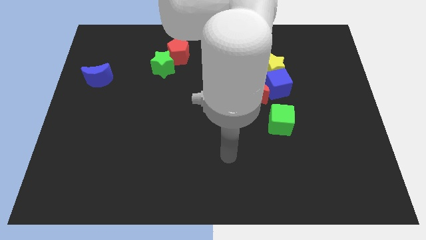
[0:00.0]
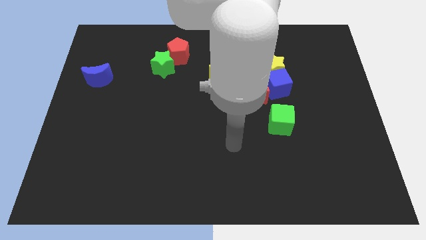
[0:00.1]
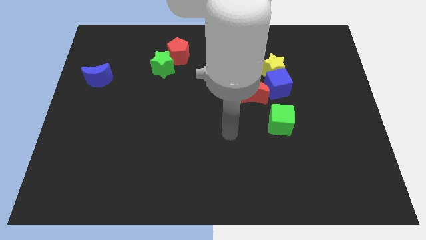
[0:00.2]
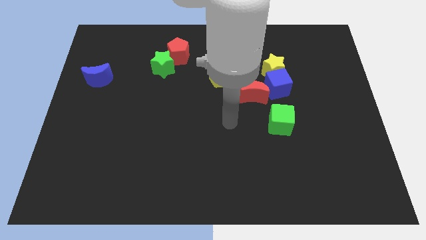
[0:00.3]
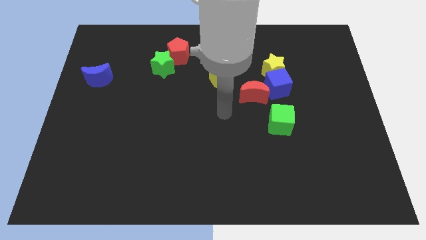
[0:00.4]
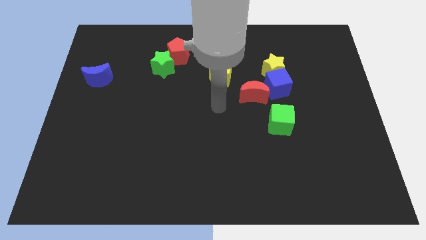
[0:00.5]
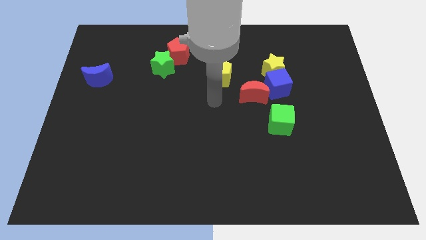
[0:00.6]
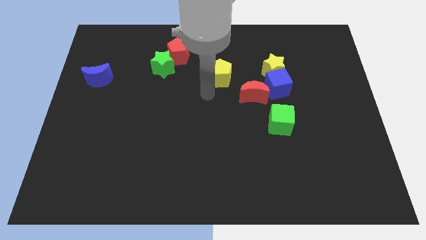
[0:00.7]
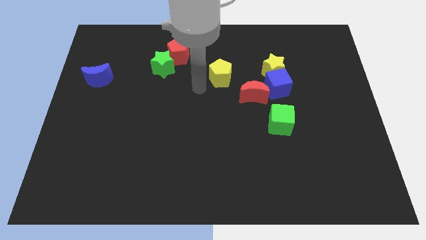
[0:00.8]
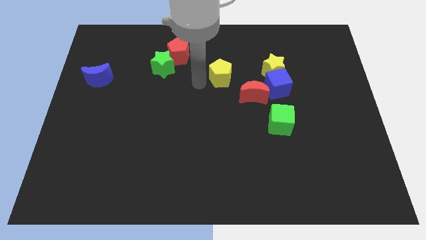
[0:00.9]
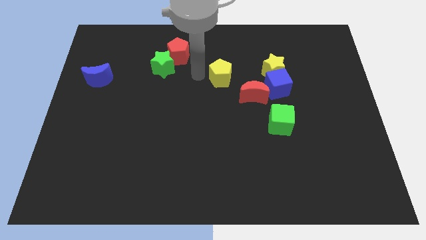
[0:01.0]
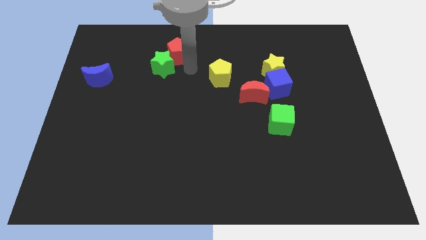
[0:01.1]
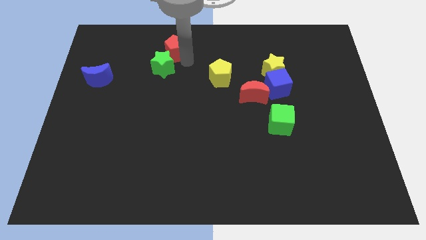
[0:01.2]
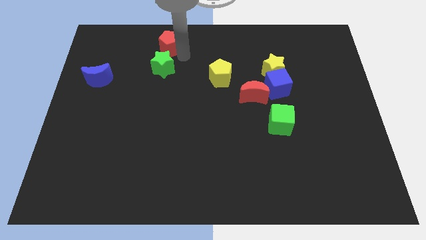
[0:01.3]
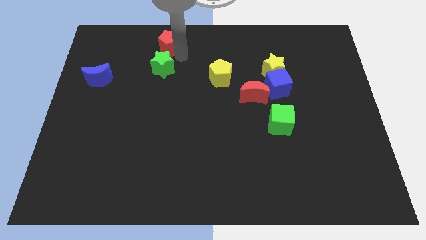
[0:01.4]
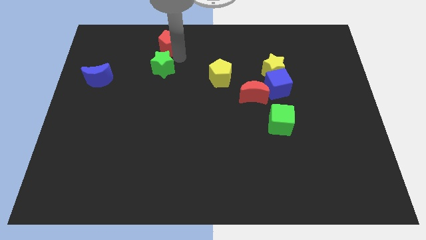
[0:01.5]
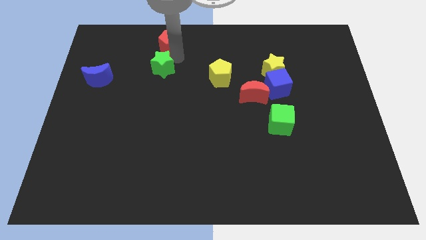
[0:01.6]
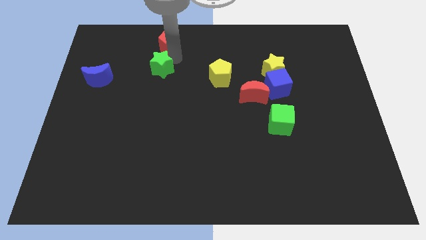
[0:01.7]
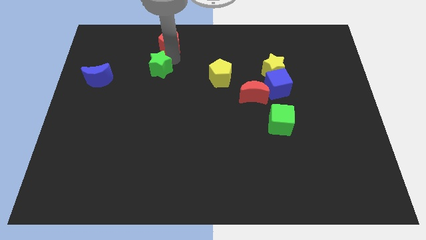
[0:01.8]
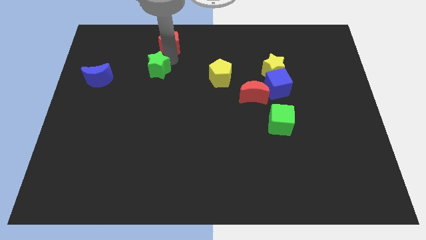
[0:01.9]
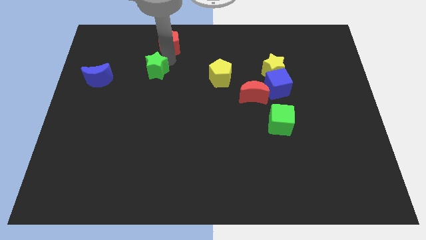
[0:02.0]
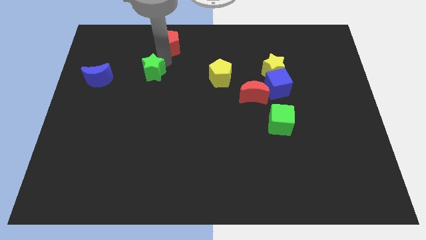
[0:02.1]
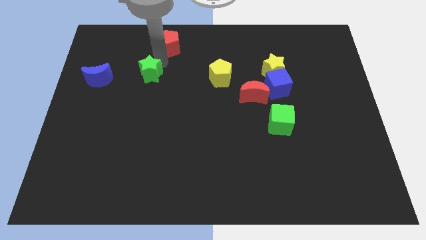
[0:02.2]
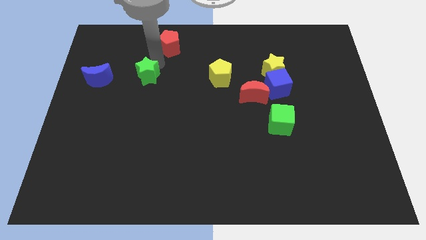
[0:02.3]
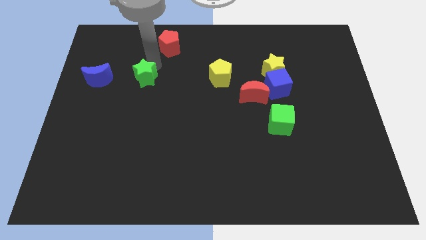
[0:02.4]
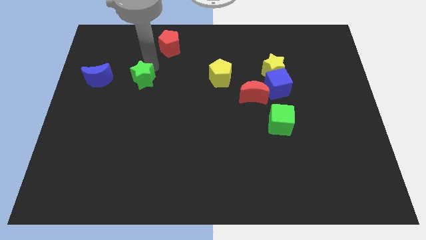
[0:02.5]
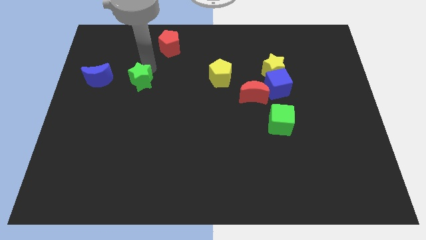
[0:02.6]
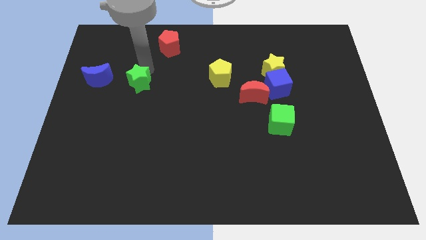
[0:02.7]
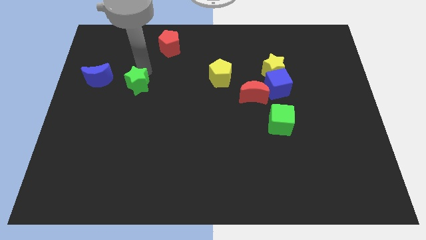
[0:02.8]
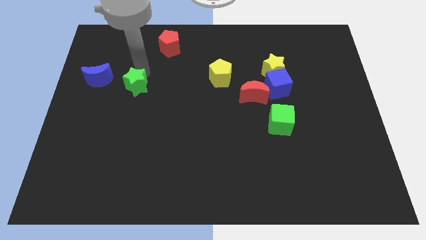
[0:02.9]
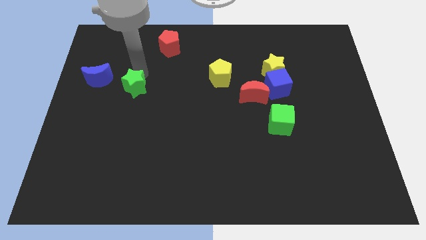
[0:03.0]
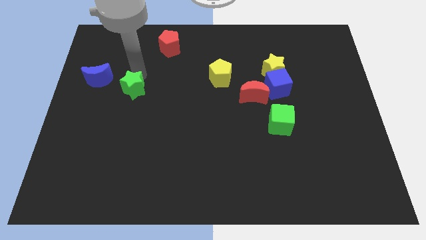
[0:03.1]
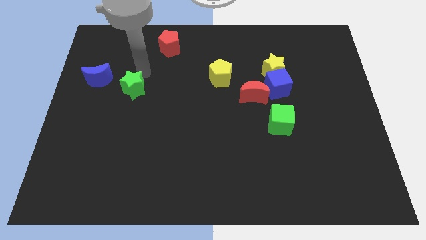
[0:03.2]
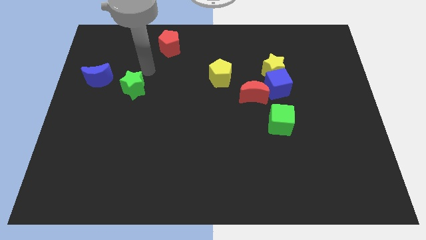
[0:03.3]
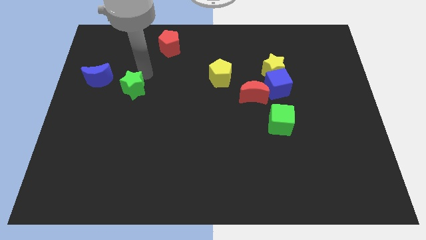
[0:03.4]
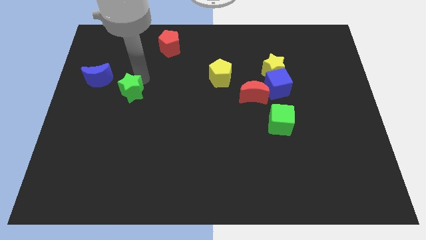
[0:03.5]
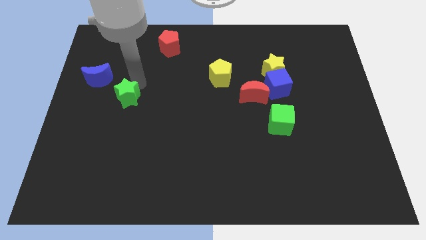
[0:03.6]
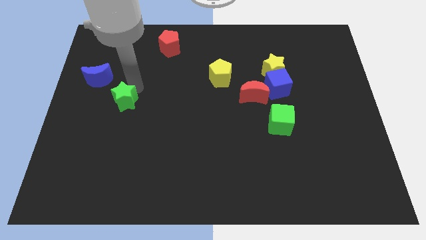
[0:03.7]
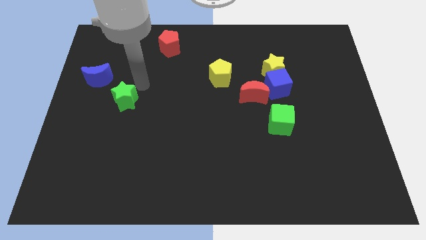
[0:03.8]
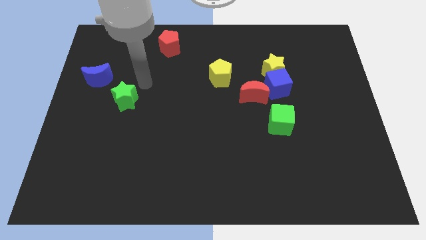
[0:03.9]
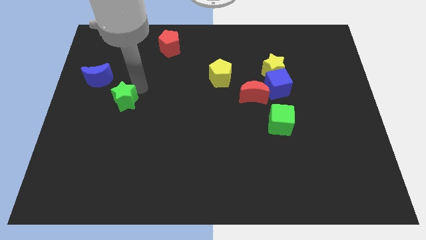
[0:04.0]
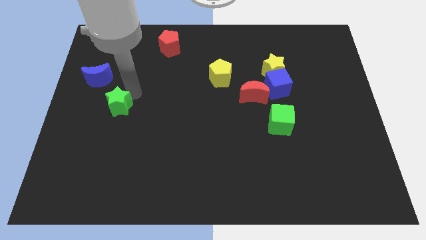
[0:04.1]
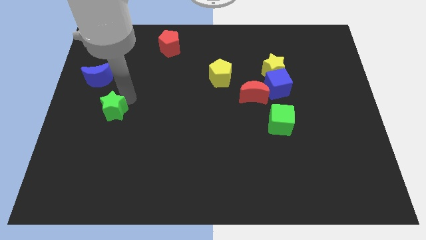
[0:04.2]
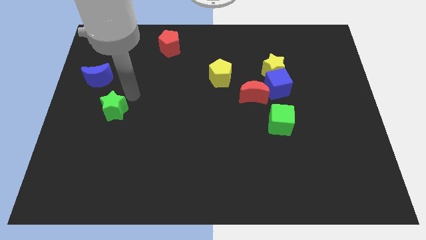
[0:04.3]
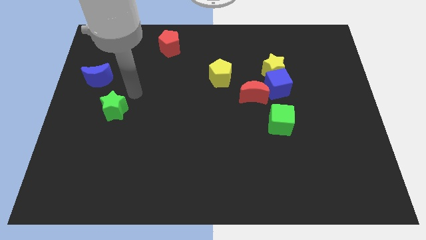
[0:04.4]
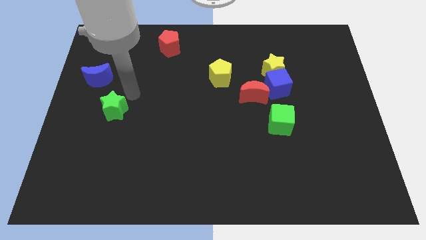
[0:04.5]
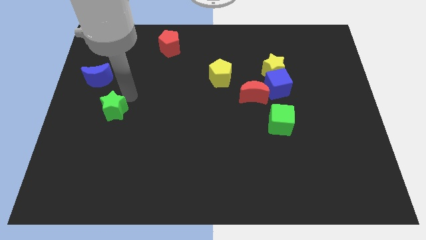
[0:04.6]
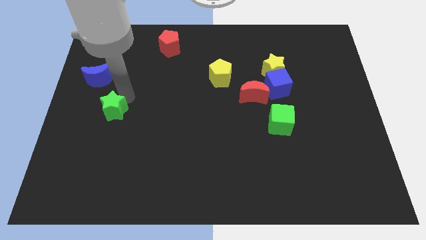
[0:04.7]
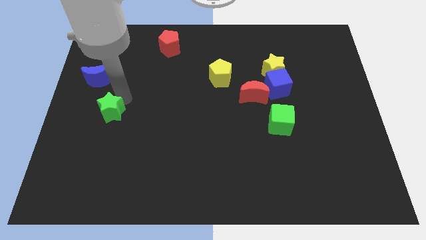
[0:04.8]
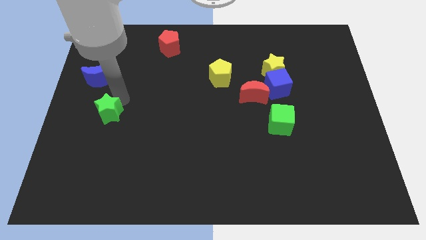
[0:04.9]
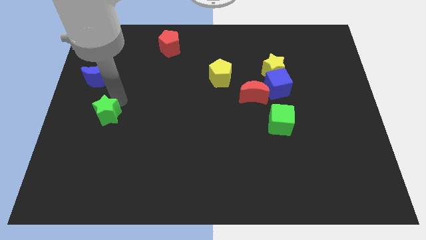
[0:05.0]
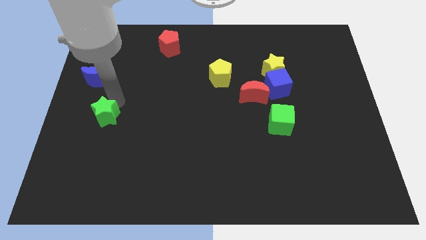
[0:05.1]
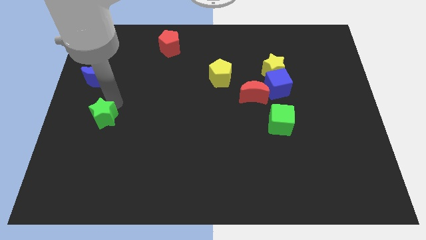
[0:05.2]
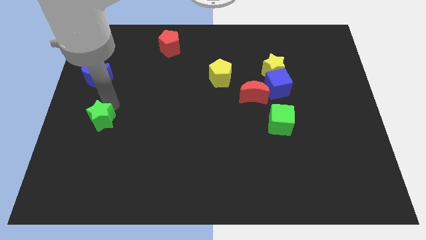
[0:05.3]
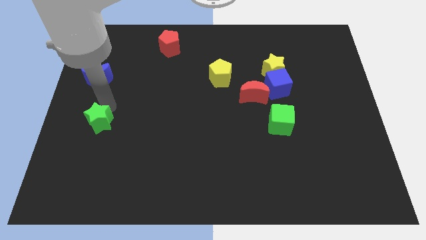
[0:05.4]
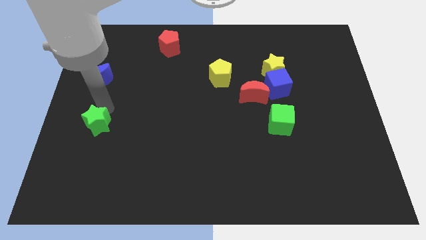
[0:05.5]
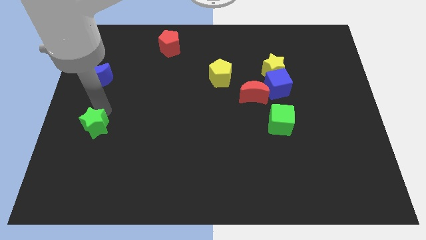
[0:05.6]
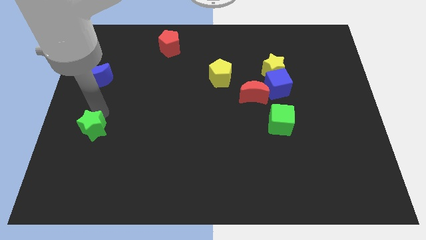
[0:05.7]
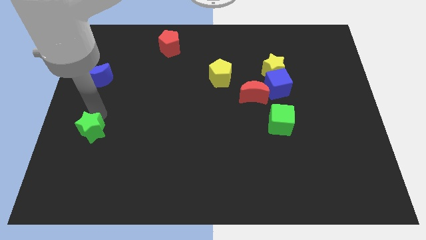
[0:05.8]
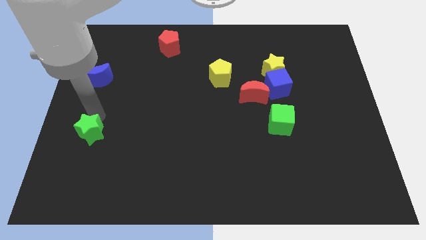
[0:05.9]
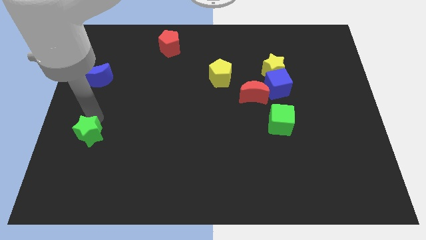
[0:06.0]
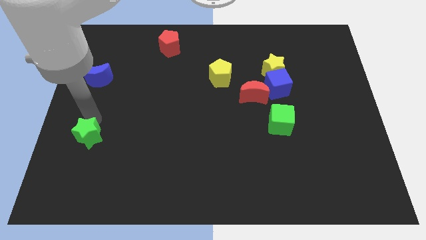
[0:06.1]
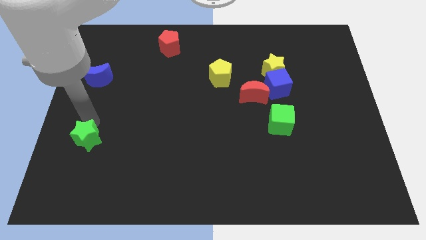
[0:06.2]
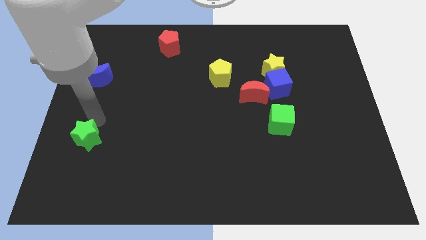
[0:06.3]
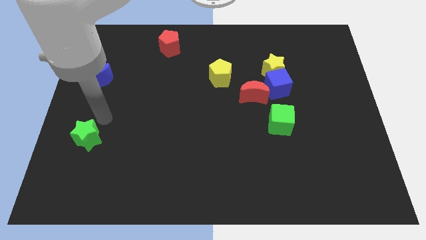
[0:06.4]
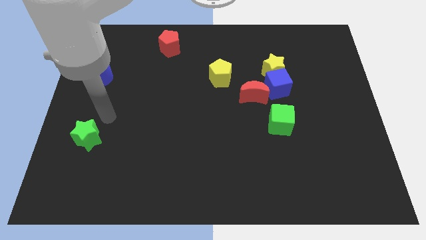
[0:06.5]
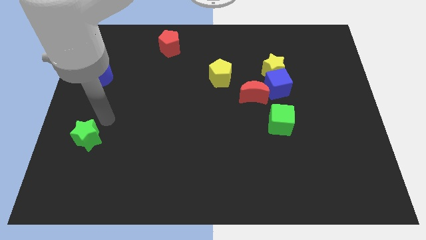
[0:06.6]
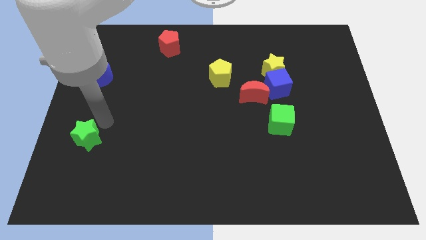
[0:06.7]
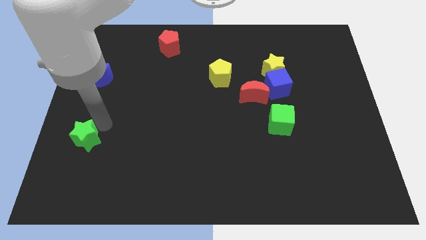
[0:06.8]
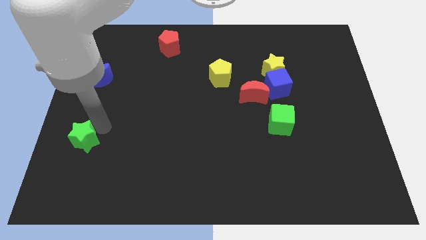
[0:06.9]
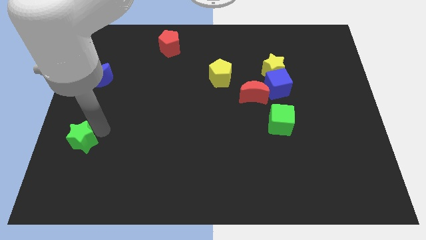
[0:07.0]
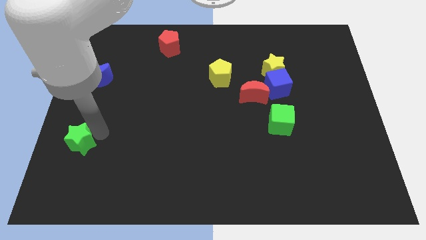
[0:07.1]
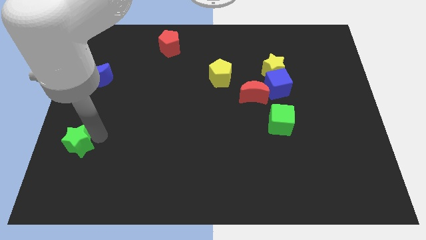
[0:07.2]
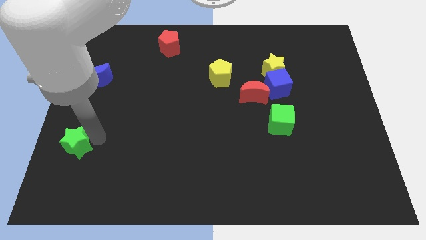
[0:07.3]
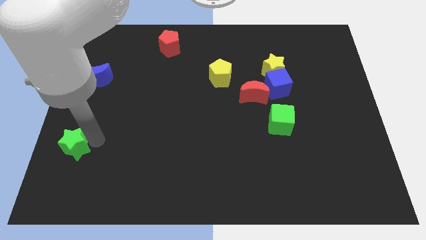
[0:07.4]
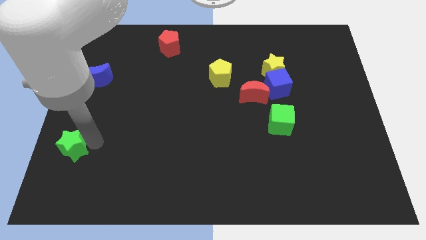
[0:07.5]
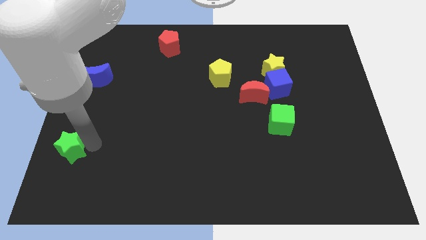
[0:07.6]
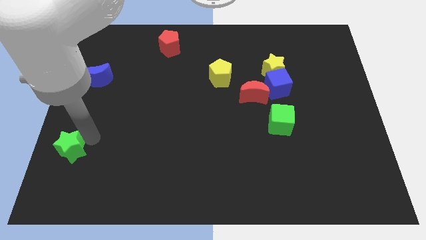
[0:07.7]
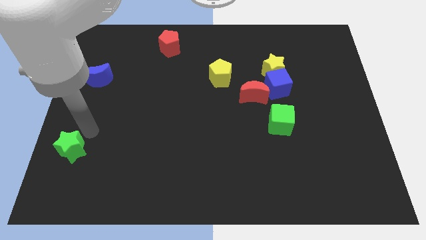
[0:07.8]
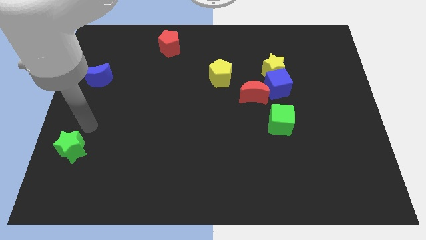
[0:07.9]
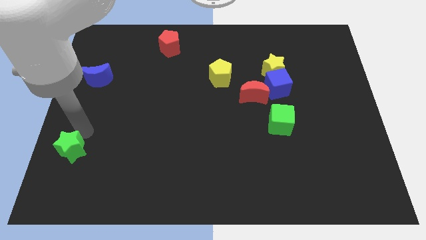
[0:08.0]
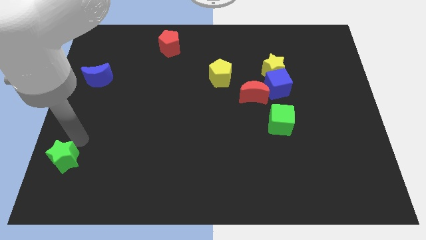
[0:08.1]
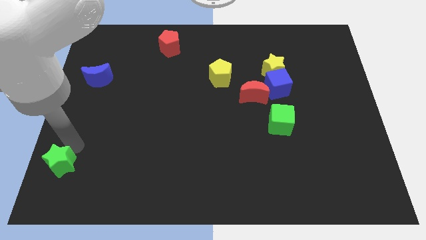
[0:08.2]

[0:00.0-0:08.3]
put the green star to the bottom left of the board
